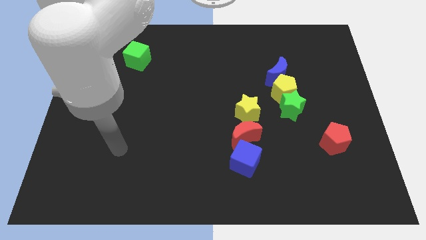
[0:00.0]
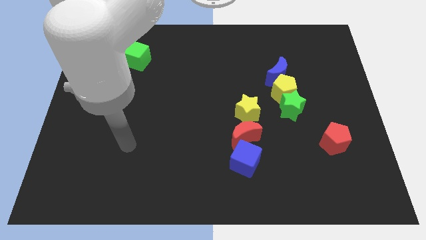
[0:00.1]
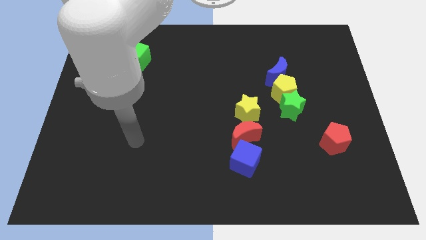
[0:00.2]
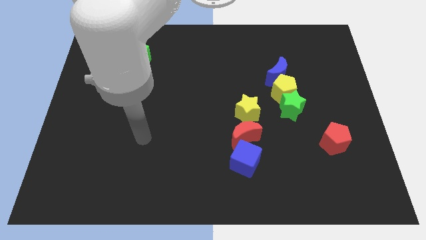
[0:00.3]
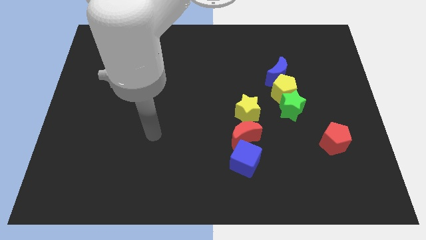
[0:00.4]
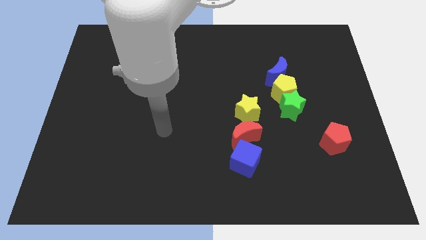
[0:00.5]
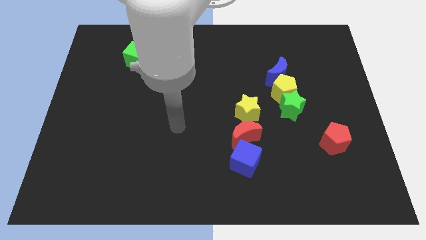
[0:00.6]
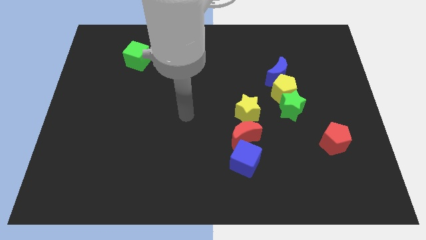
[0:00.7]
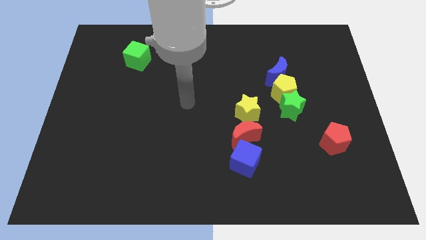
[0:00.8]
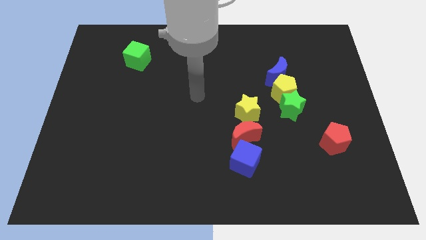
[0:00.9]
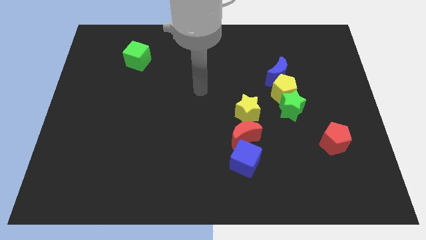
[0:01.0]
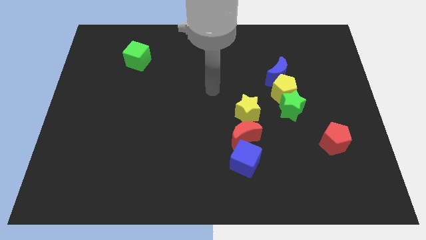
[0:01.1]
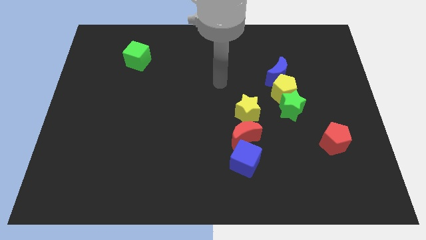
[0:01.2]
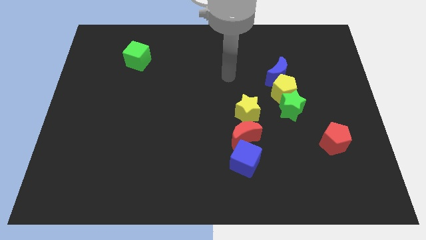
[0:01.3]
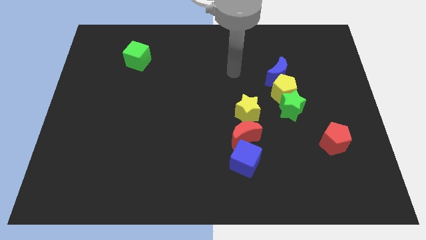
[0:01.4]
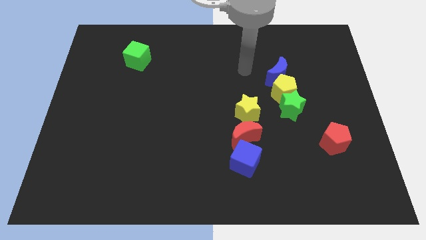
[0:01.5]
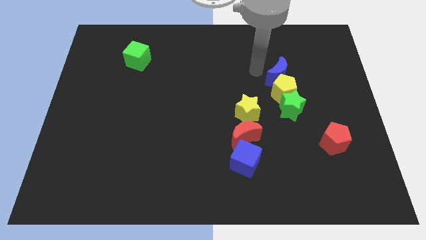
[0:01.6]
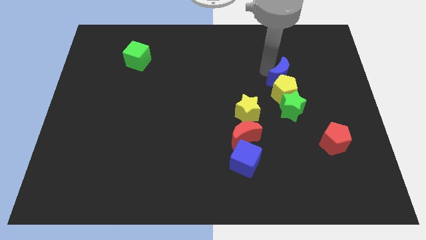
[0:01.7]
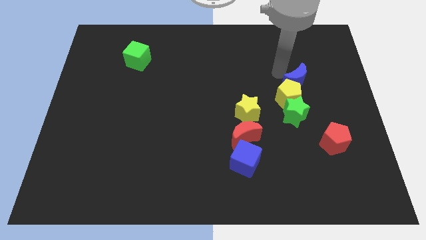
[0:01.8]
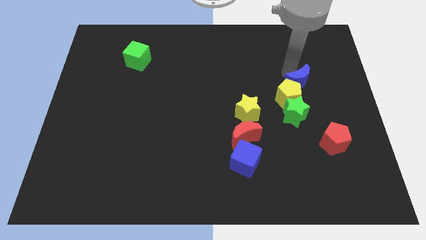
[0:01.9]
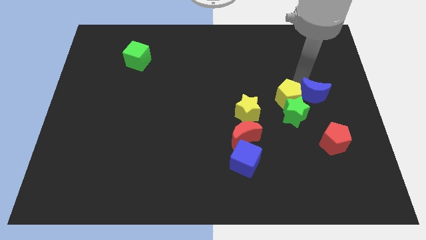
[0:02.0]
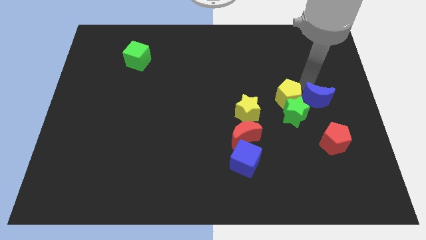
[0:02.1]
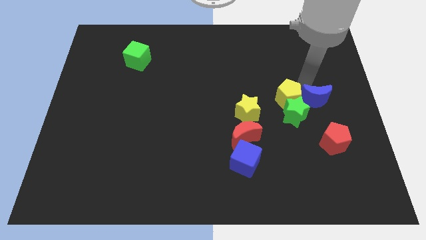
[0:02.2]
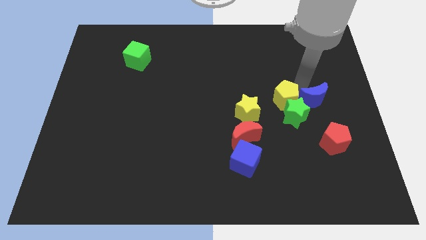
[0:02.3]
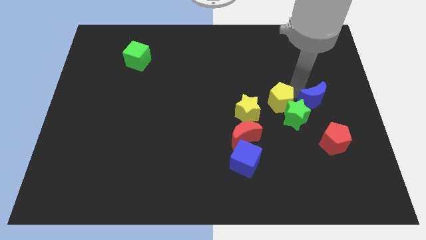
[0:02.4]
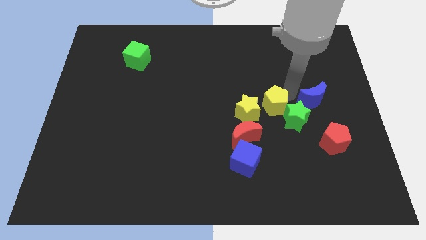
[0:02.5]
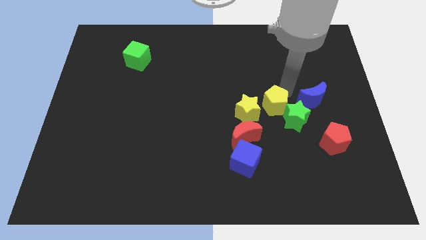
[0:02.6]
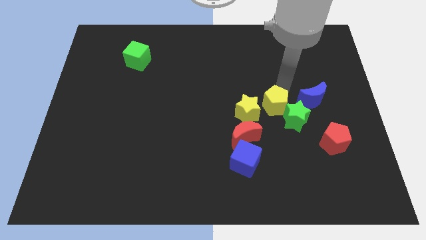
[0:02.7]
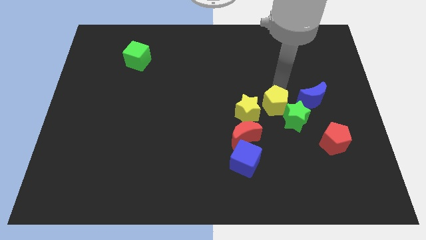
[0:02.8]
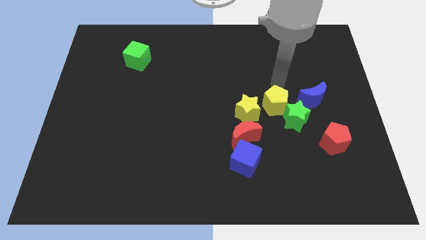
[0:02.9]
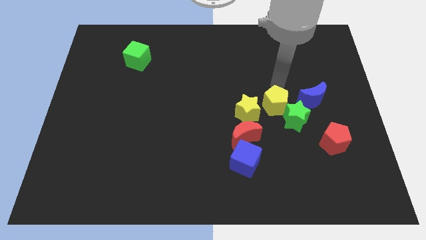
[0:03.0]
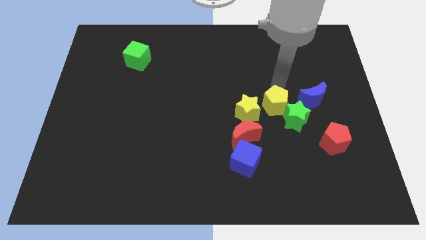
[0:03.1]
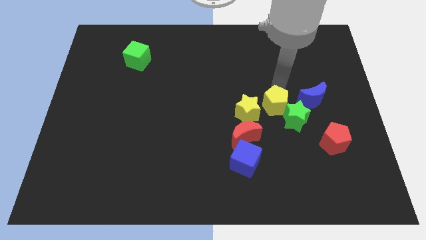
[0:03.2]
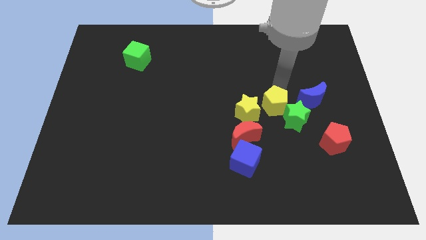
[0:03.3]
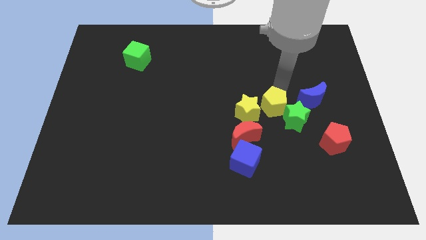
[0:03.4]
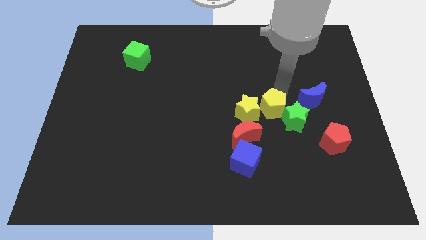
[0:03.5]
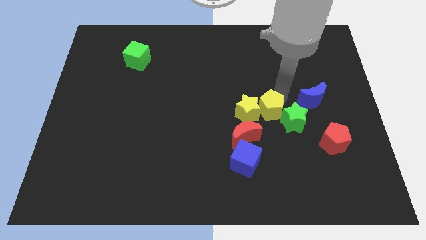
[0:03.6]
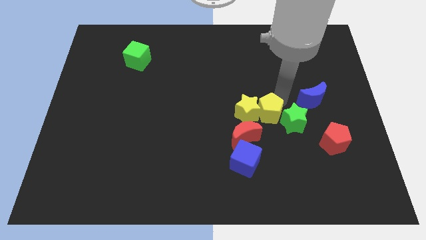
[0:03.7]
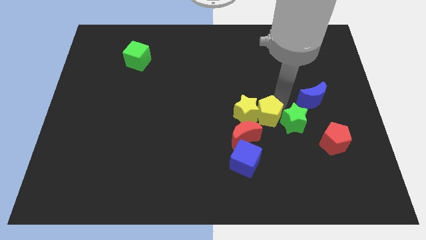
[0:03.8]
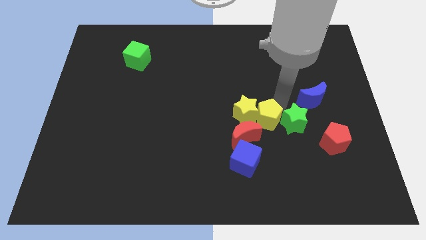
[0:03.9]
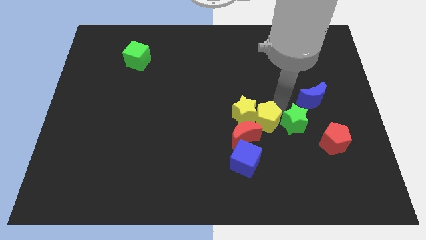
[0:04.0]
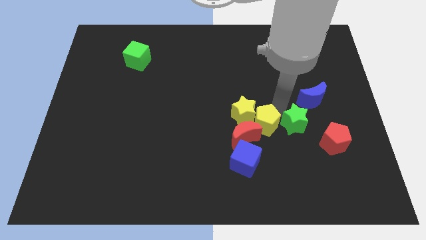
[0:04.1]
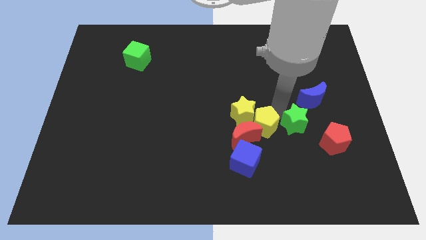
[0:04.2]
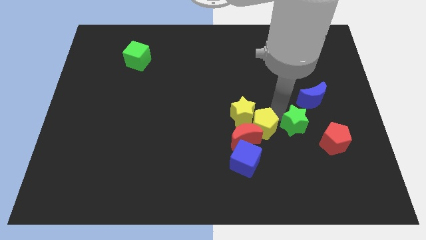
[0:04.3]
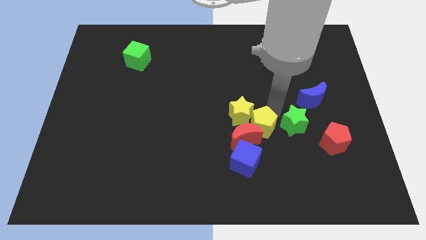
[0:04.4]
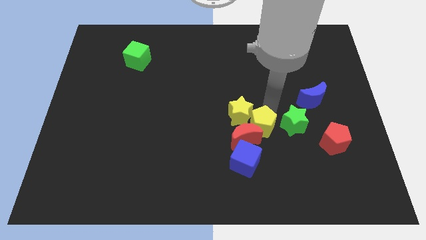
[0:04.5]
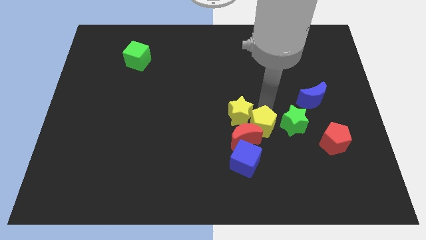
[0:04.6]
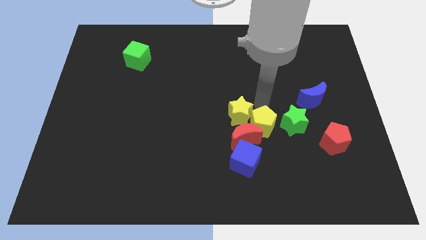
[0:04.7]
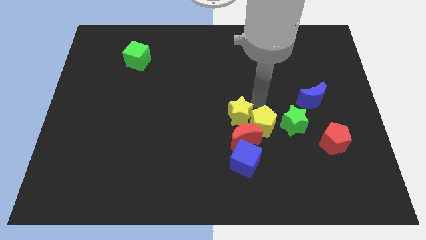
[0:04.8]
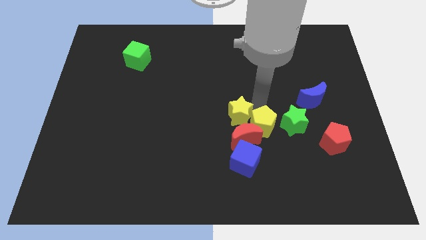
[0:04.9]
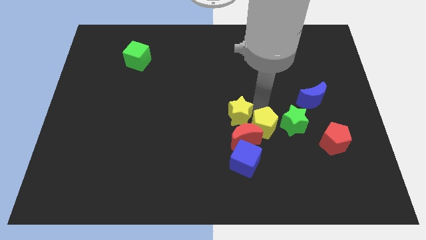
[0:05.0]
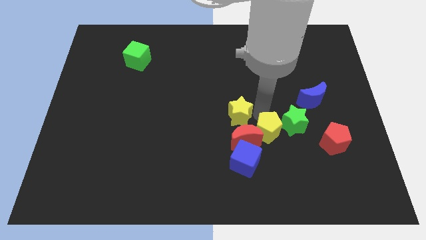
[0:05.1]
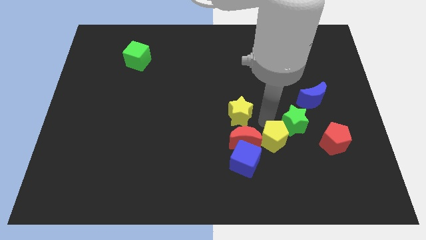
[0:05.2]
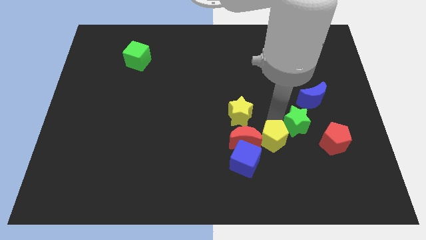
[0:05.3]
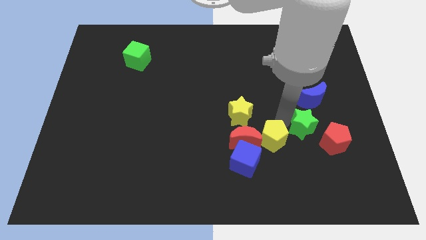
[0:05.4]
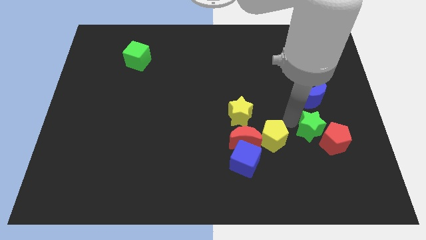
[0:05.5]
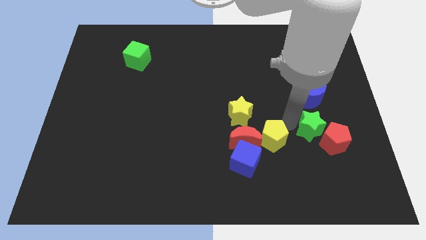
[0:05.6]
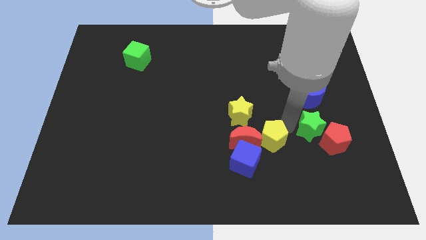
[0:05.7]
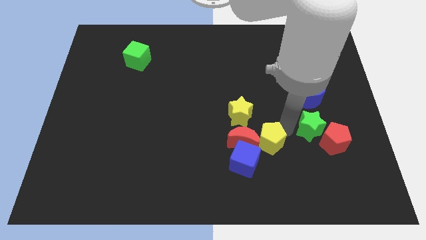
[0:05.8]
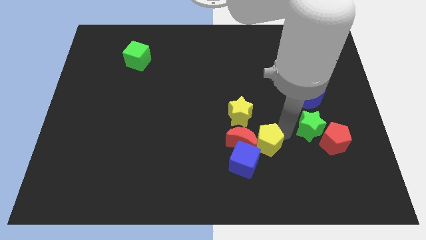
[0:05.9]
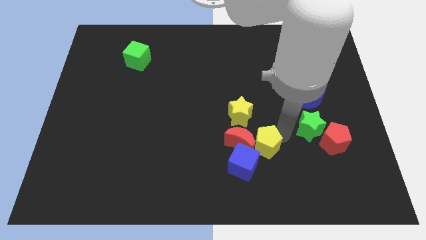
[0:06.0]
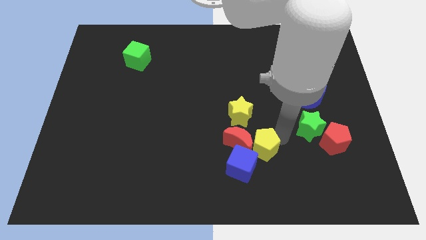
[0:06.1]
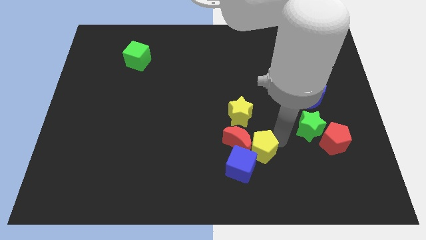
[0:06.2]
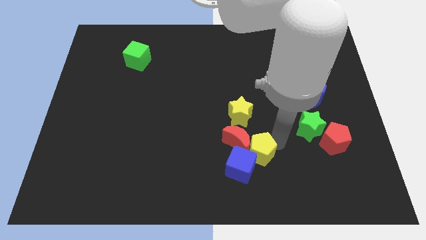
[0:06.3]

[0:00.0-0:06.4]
put the yellow pentagon to the blue cube

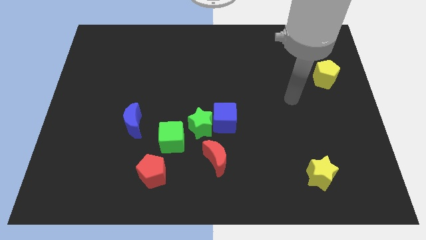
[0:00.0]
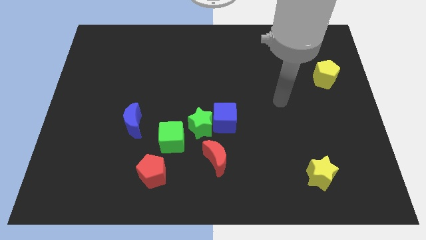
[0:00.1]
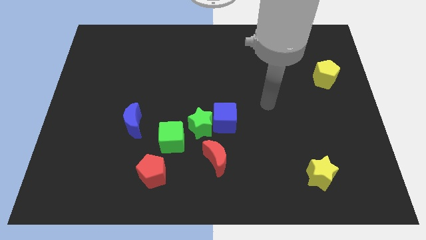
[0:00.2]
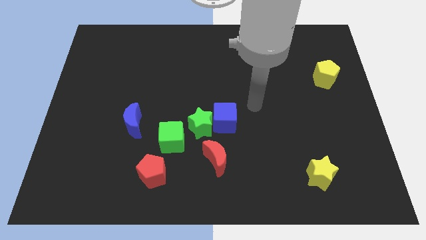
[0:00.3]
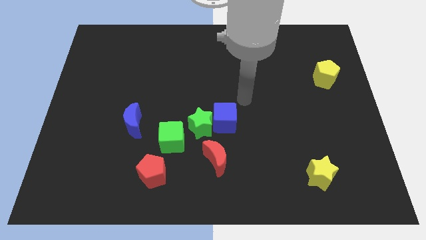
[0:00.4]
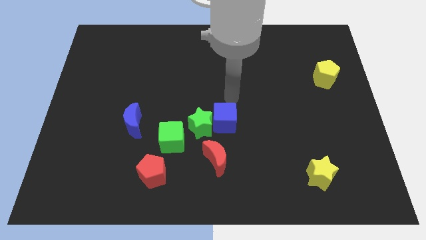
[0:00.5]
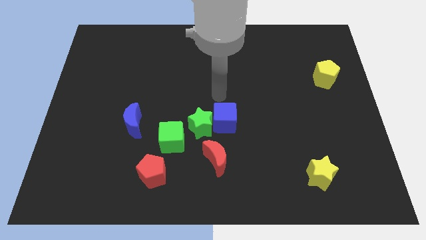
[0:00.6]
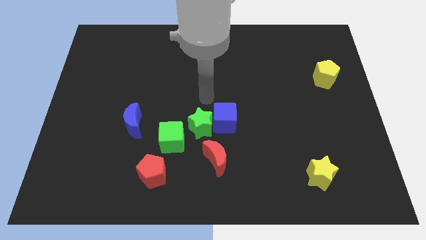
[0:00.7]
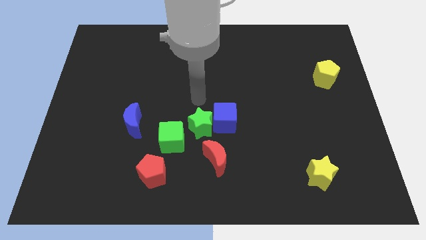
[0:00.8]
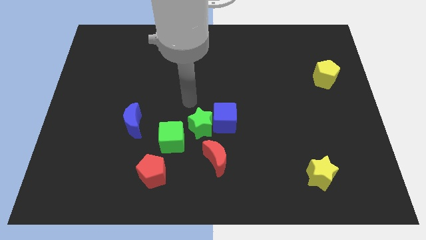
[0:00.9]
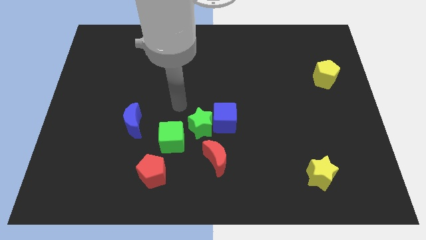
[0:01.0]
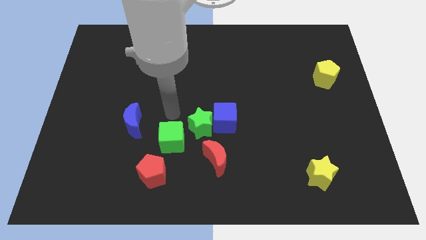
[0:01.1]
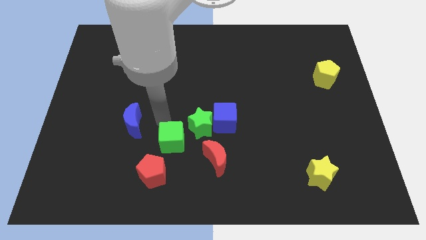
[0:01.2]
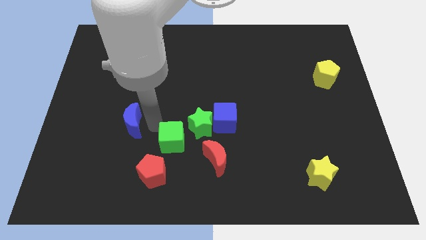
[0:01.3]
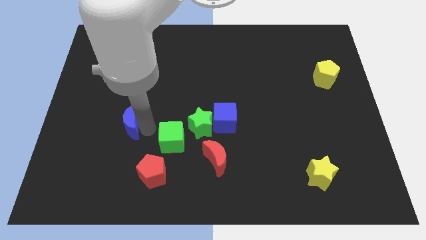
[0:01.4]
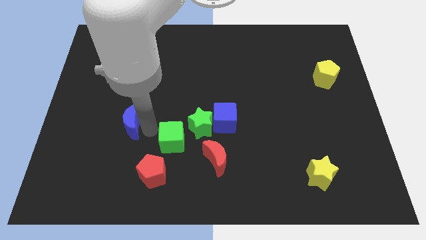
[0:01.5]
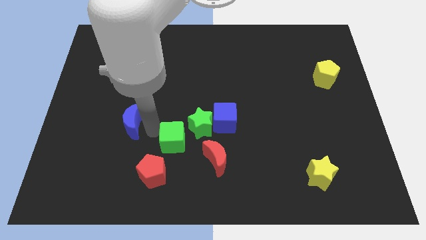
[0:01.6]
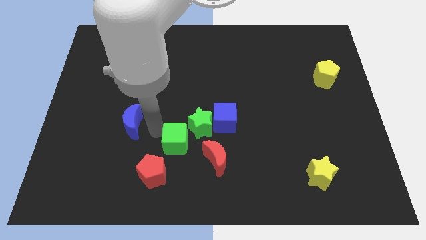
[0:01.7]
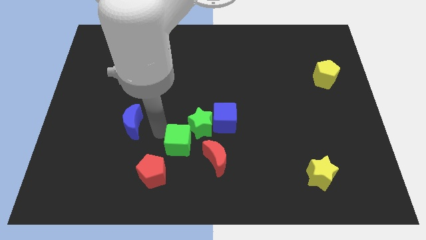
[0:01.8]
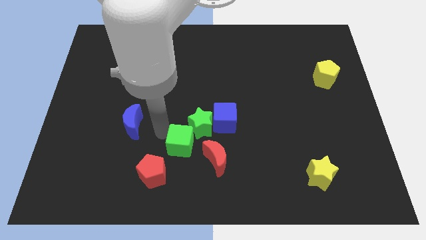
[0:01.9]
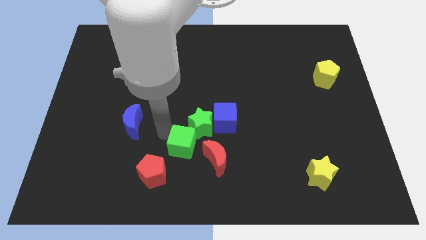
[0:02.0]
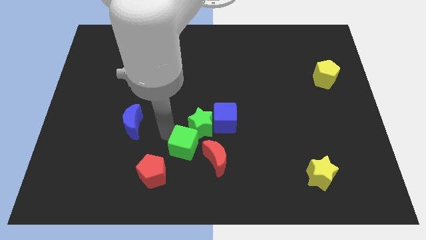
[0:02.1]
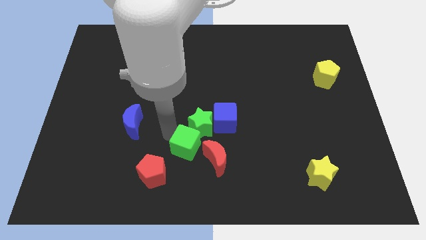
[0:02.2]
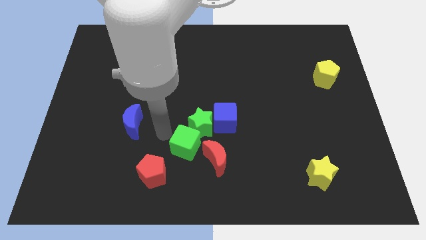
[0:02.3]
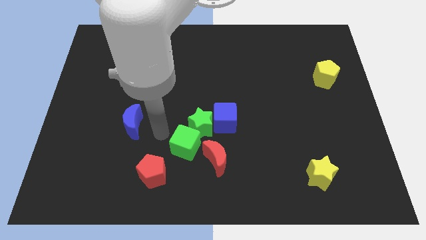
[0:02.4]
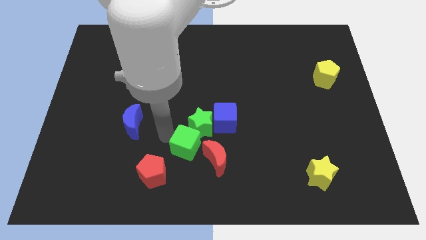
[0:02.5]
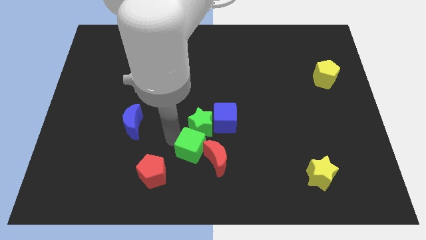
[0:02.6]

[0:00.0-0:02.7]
slide the green cube towards the red moon
